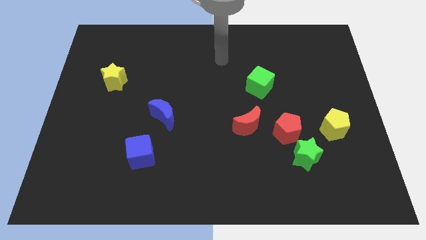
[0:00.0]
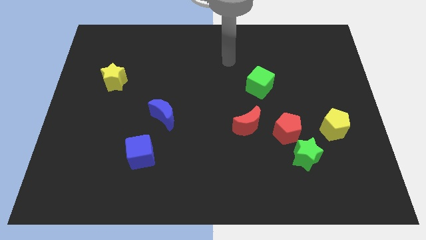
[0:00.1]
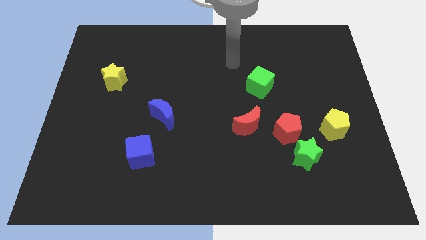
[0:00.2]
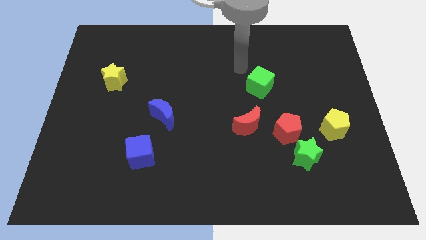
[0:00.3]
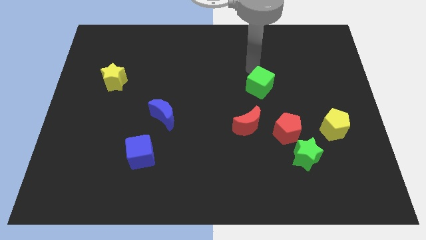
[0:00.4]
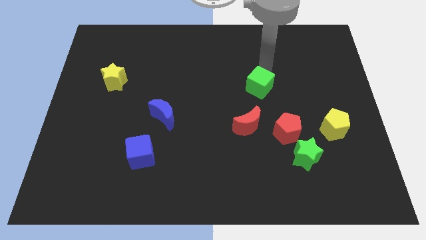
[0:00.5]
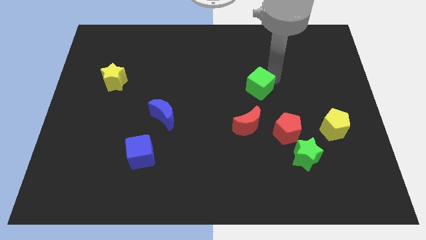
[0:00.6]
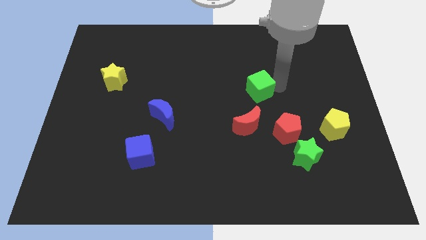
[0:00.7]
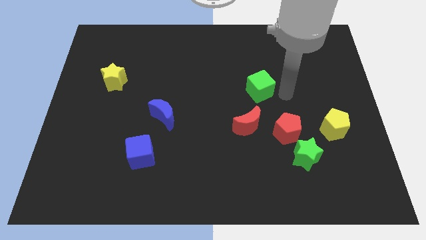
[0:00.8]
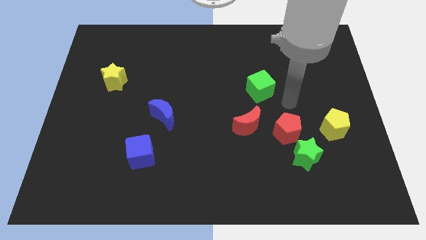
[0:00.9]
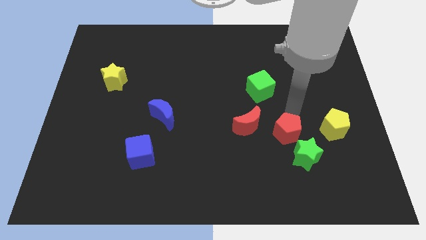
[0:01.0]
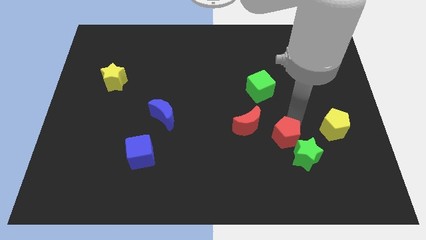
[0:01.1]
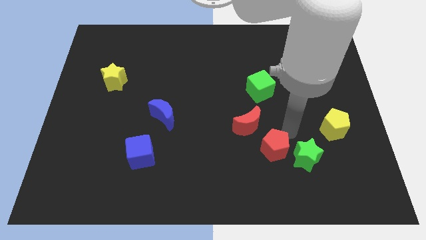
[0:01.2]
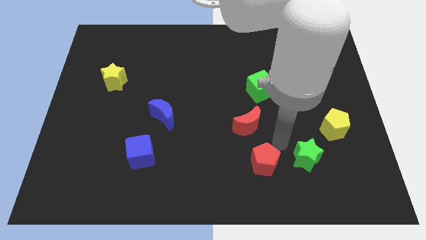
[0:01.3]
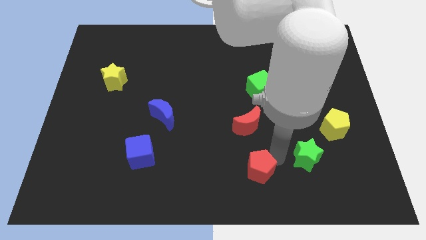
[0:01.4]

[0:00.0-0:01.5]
pull the green star apart from the red pentagon

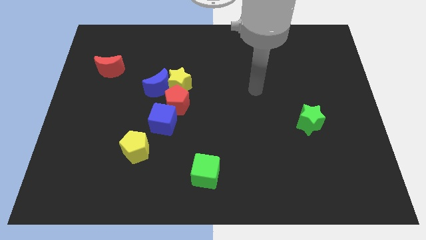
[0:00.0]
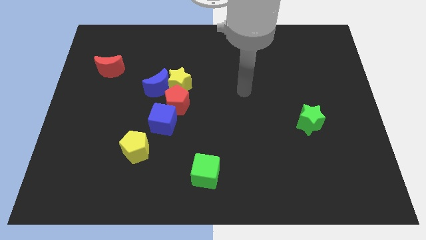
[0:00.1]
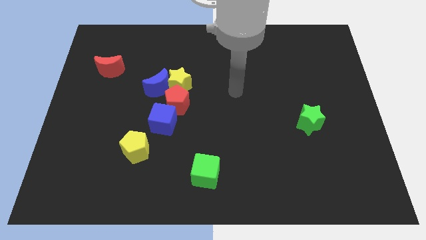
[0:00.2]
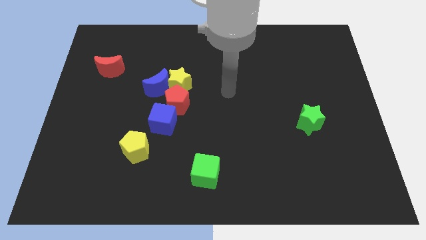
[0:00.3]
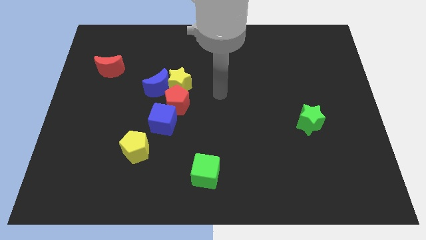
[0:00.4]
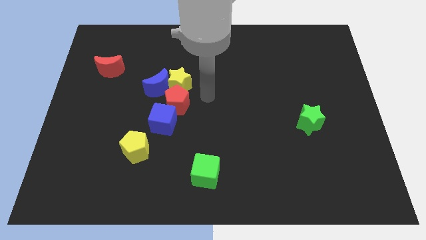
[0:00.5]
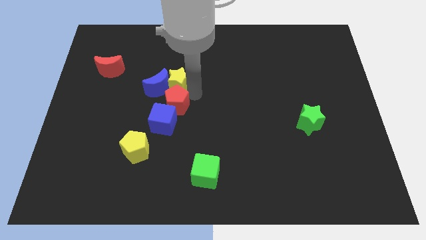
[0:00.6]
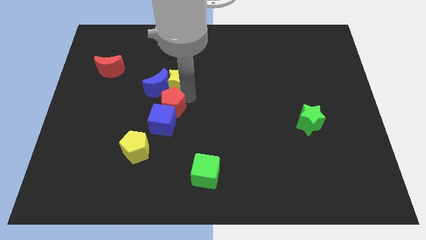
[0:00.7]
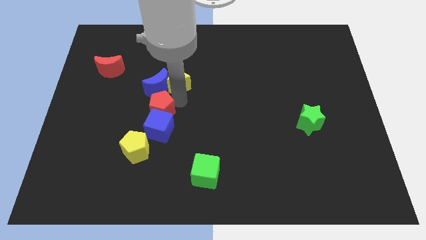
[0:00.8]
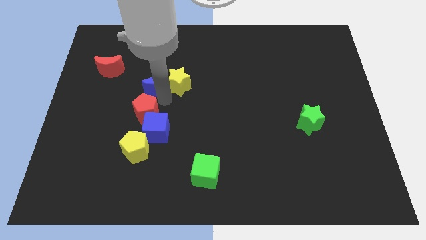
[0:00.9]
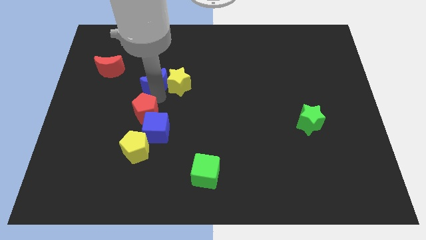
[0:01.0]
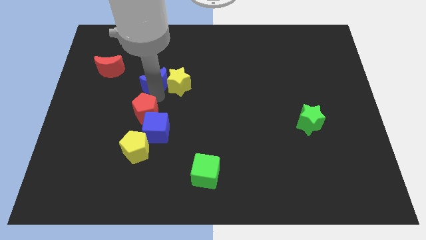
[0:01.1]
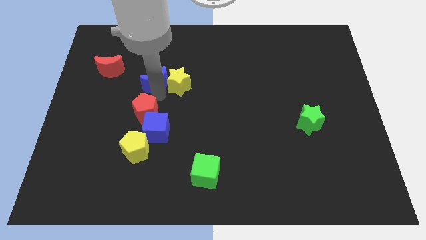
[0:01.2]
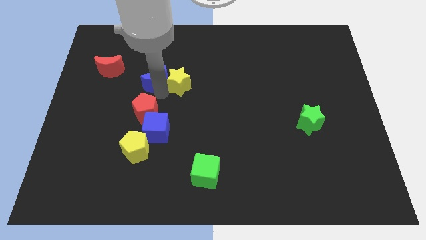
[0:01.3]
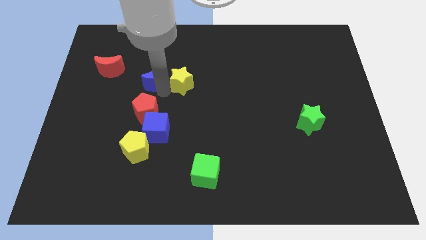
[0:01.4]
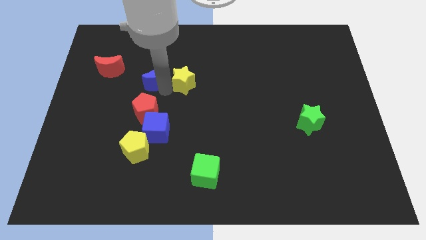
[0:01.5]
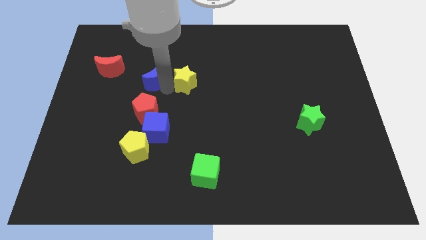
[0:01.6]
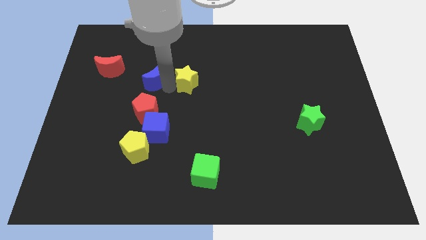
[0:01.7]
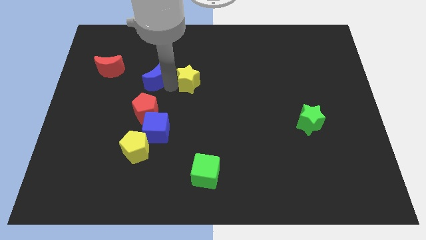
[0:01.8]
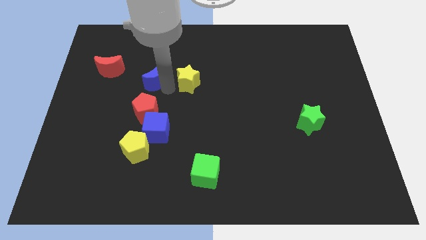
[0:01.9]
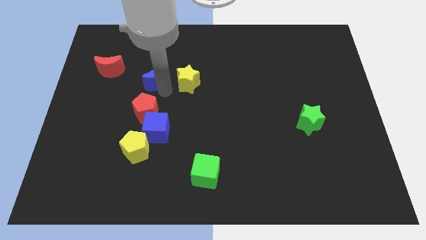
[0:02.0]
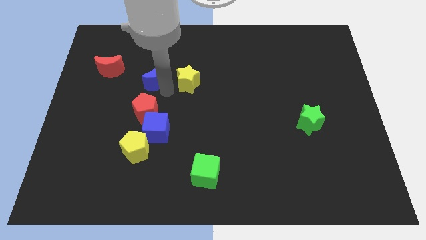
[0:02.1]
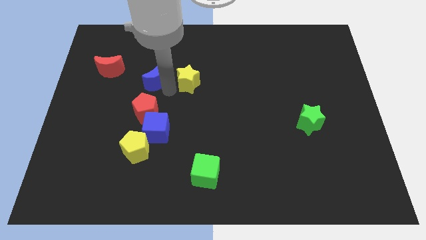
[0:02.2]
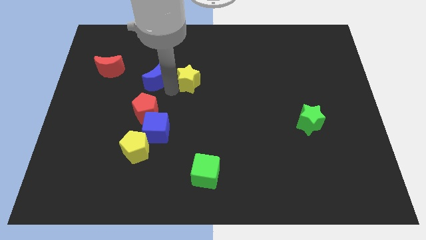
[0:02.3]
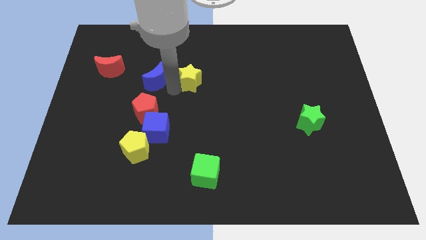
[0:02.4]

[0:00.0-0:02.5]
move the yellow star away from the blue moon and red pentagon

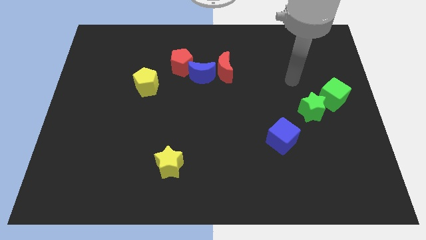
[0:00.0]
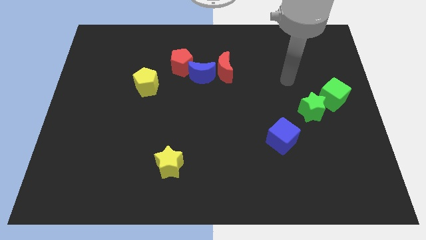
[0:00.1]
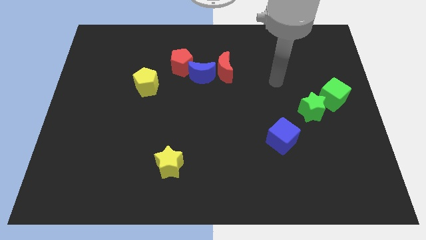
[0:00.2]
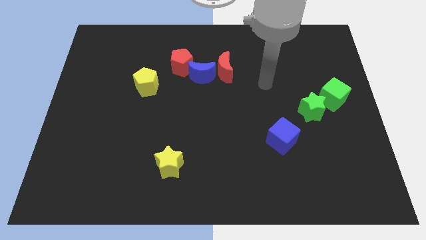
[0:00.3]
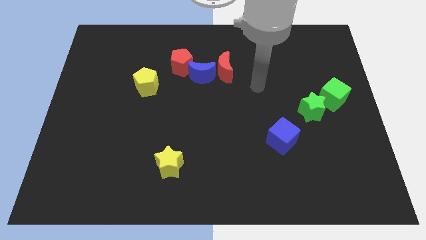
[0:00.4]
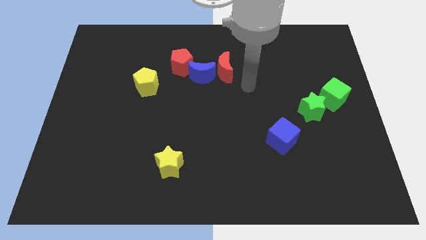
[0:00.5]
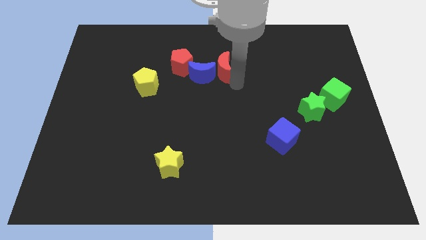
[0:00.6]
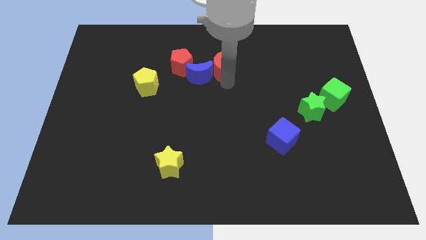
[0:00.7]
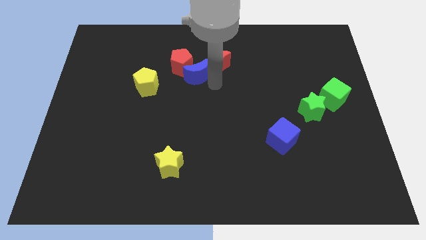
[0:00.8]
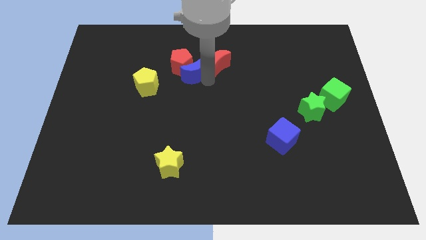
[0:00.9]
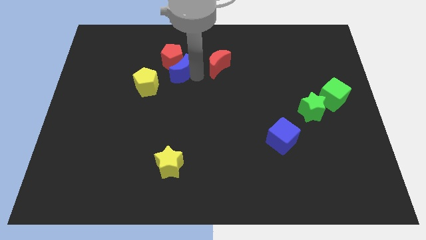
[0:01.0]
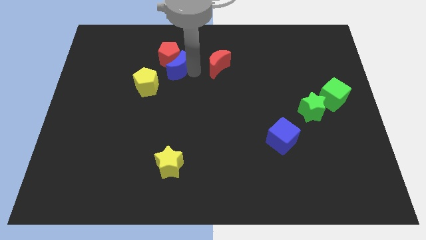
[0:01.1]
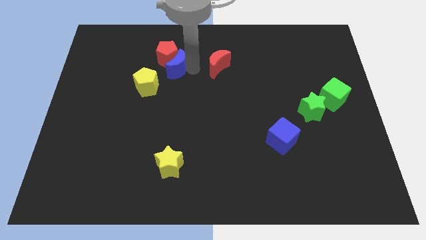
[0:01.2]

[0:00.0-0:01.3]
separate the red moon from the blue moon

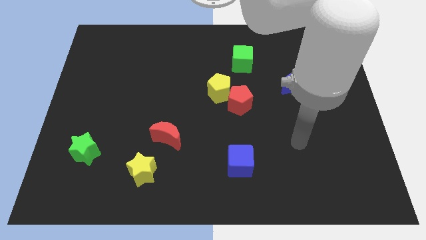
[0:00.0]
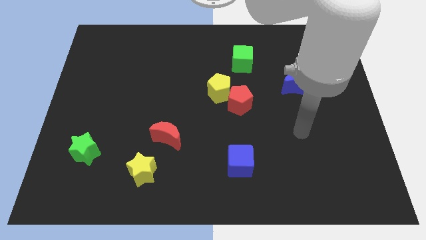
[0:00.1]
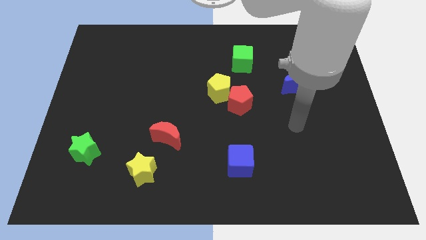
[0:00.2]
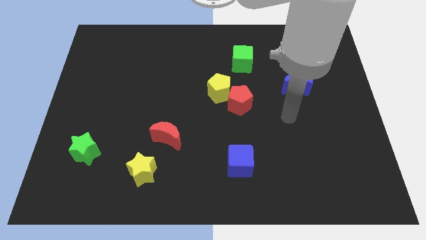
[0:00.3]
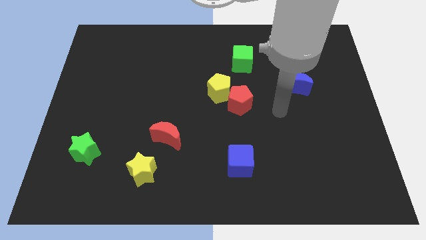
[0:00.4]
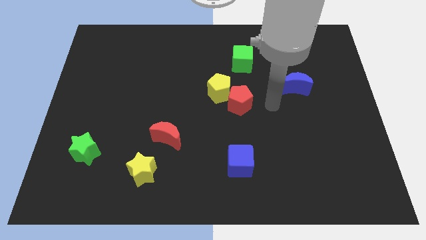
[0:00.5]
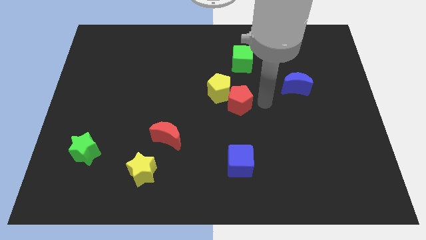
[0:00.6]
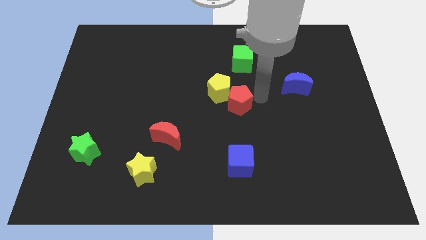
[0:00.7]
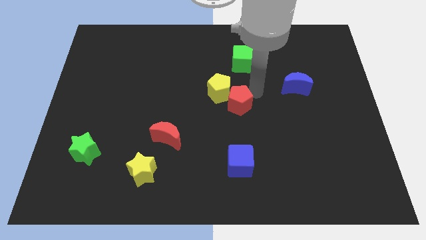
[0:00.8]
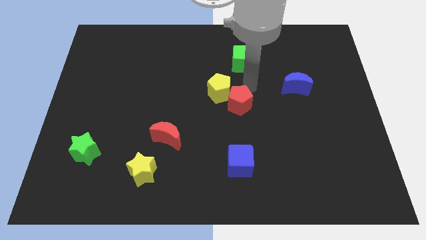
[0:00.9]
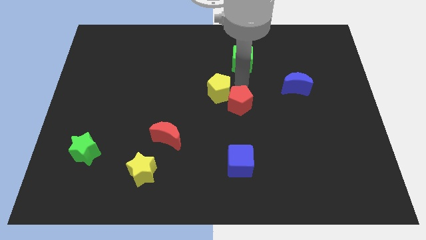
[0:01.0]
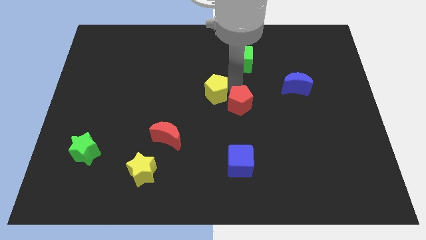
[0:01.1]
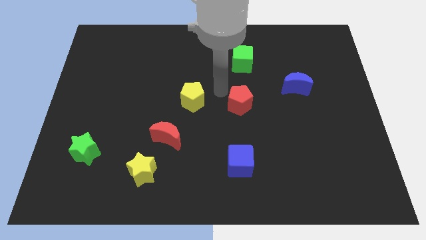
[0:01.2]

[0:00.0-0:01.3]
pull the red pentagon apart from the yellow pentagon

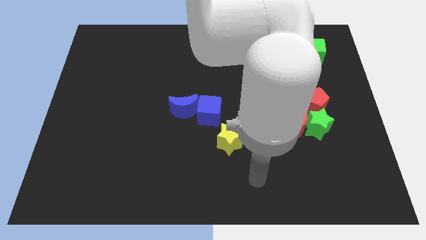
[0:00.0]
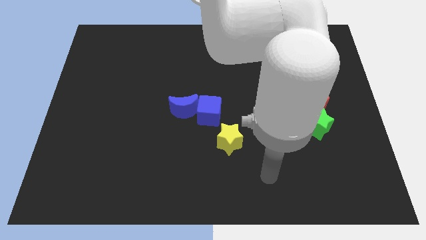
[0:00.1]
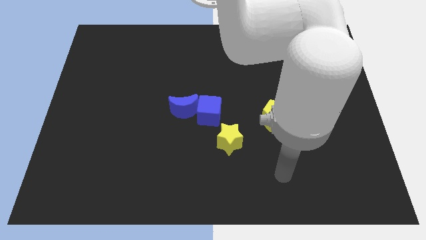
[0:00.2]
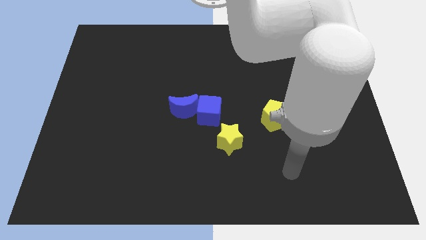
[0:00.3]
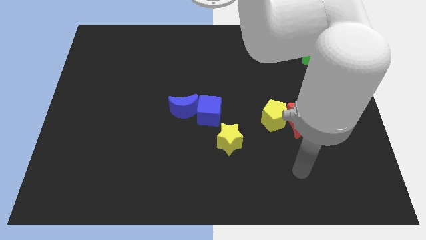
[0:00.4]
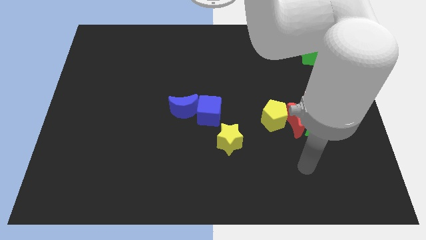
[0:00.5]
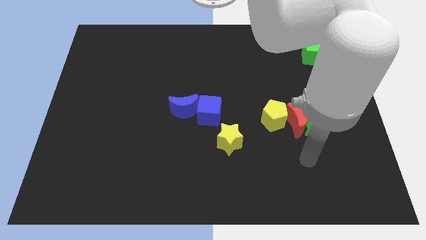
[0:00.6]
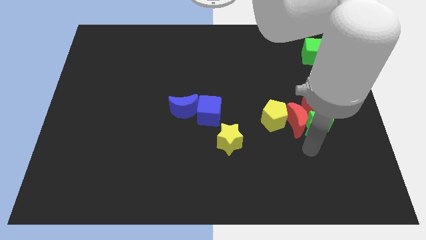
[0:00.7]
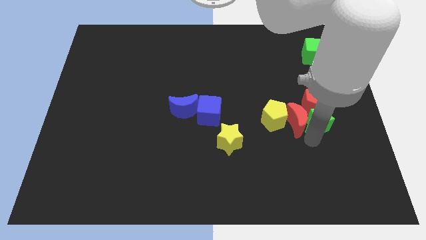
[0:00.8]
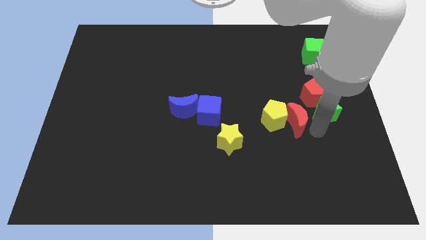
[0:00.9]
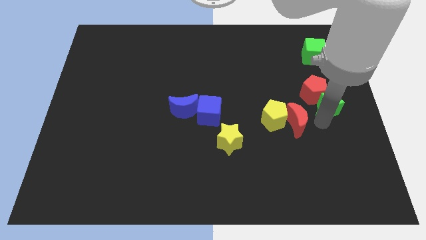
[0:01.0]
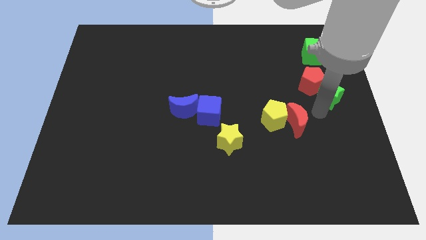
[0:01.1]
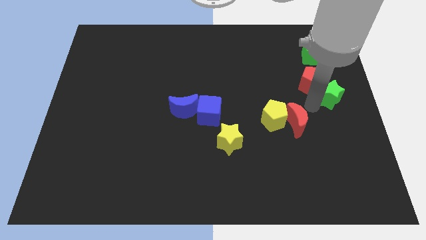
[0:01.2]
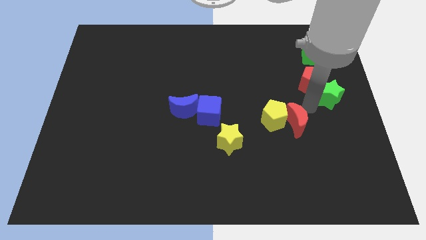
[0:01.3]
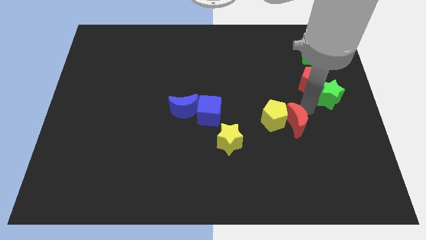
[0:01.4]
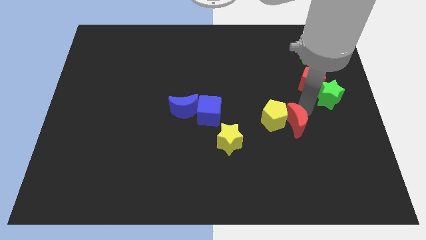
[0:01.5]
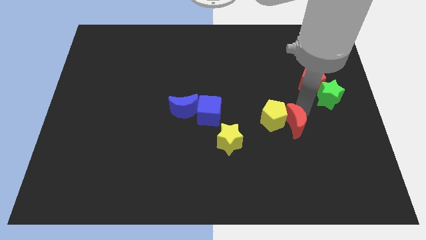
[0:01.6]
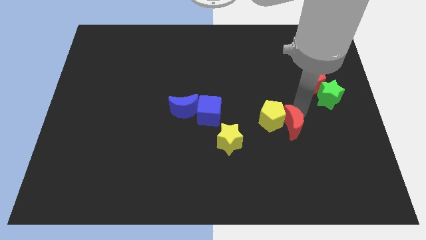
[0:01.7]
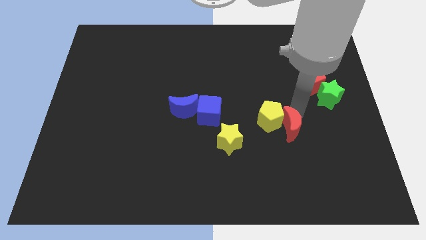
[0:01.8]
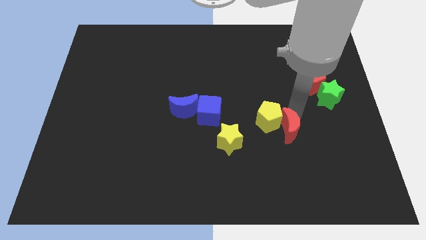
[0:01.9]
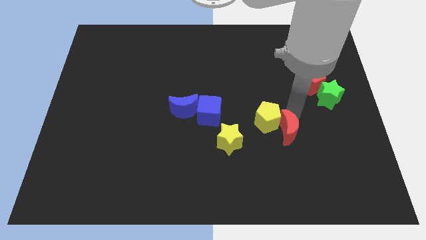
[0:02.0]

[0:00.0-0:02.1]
move the red moon away from the green star, yellow pentagon, and red pentagon

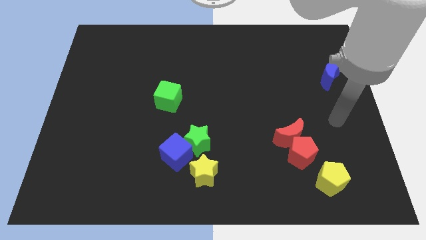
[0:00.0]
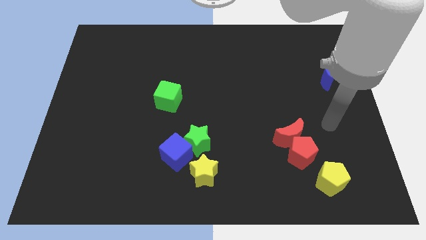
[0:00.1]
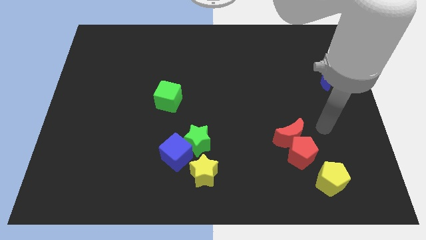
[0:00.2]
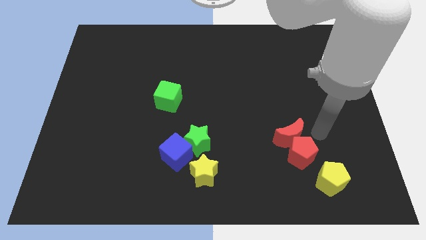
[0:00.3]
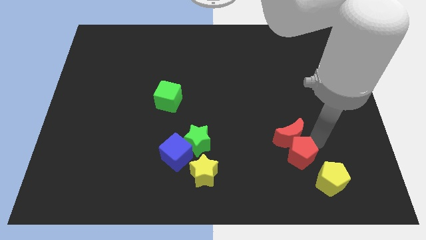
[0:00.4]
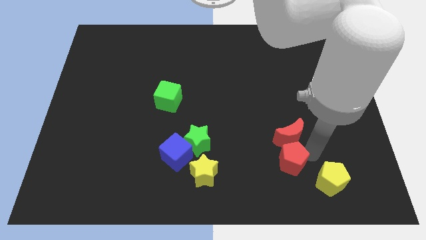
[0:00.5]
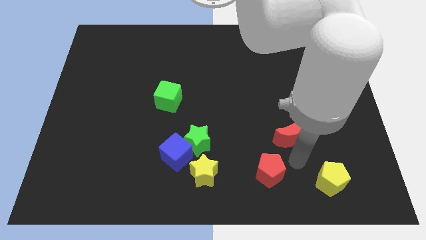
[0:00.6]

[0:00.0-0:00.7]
pull the red moon apart from the red pentagon
